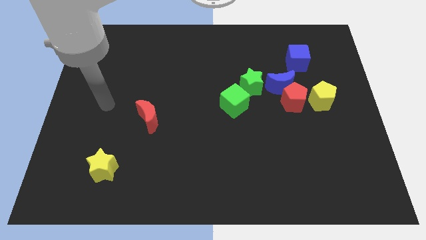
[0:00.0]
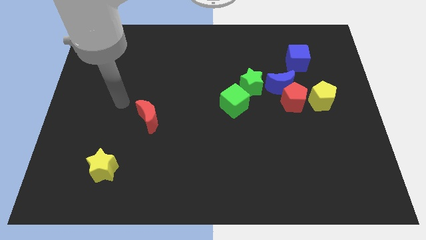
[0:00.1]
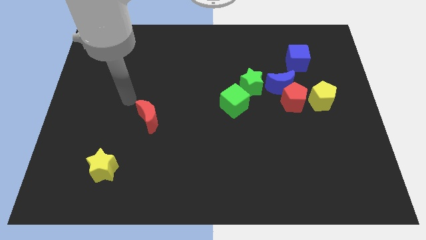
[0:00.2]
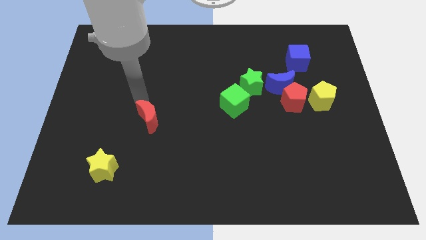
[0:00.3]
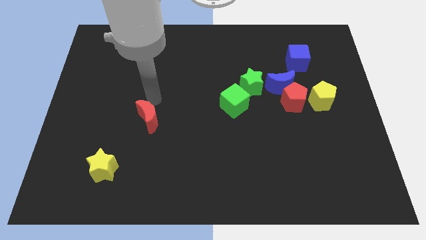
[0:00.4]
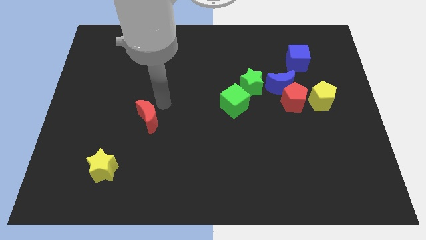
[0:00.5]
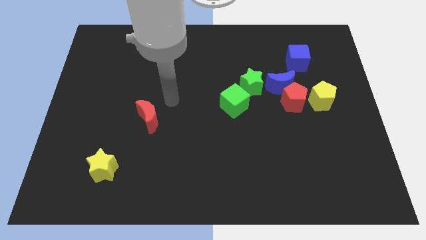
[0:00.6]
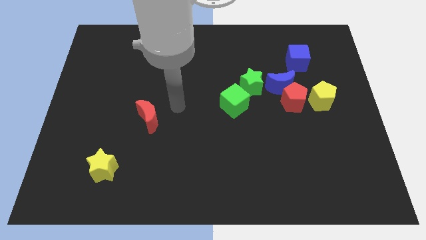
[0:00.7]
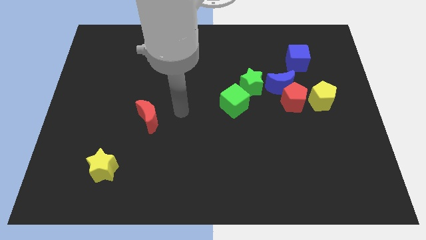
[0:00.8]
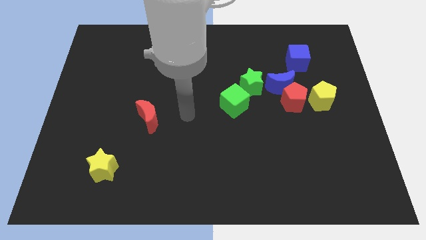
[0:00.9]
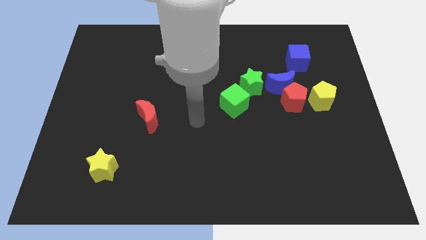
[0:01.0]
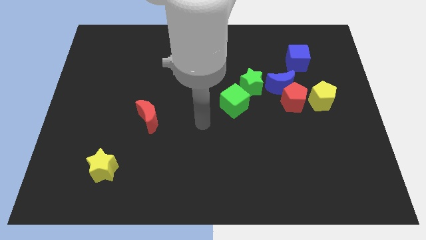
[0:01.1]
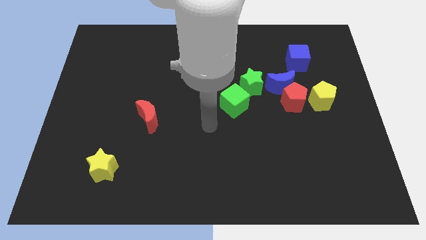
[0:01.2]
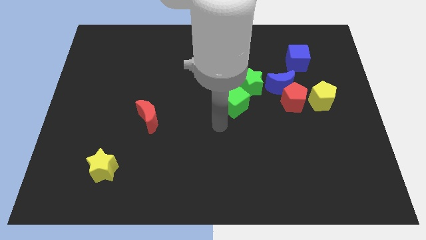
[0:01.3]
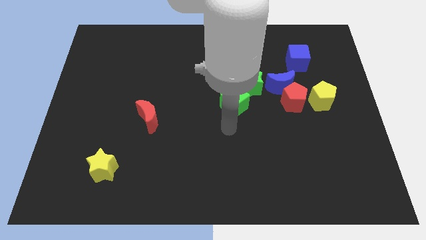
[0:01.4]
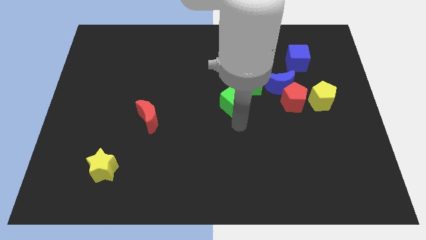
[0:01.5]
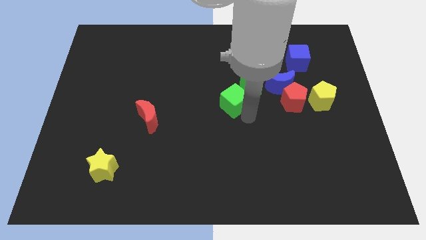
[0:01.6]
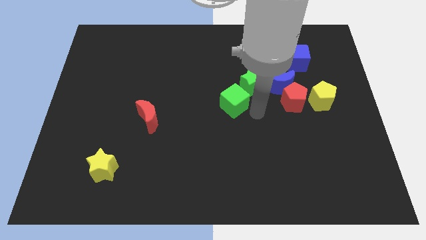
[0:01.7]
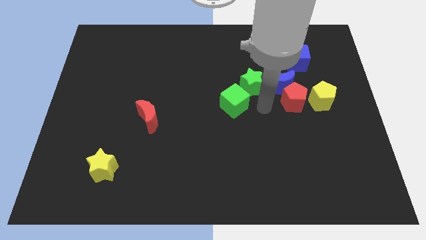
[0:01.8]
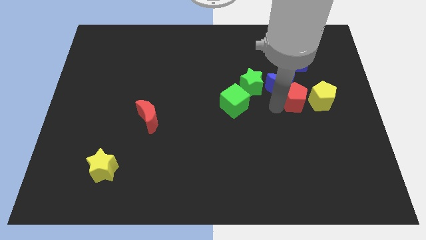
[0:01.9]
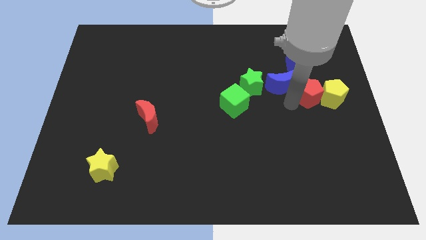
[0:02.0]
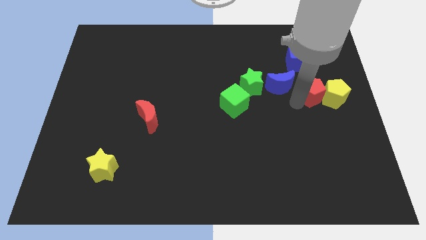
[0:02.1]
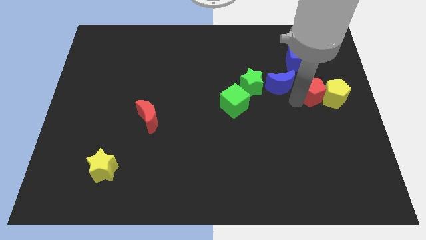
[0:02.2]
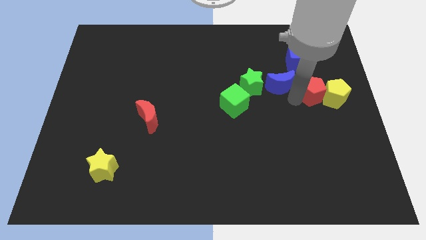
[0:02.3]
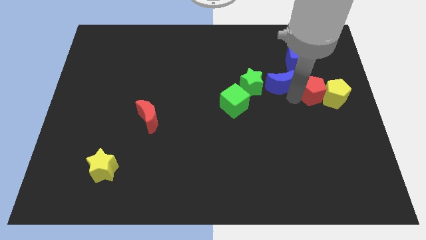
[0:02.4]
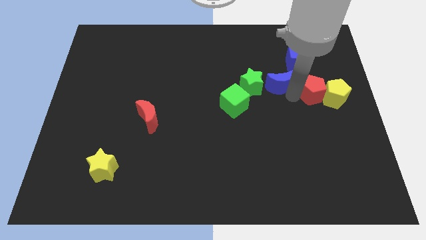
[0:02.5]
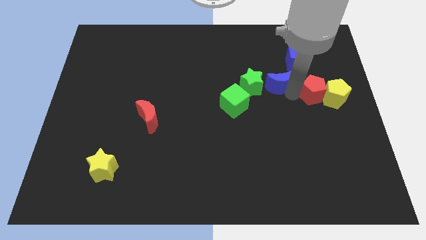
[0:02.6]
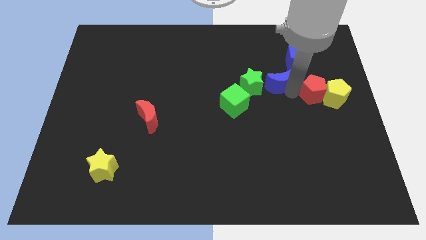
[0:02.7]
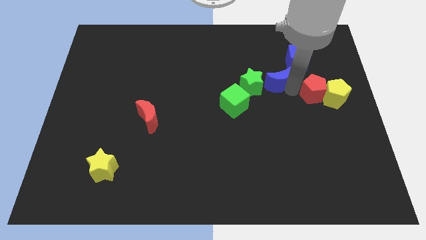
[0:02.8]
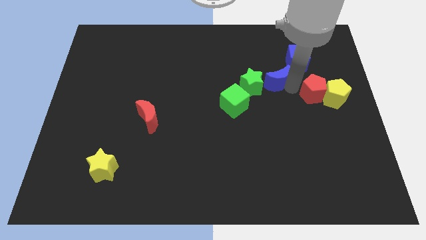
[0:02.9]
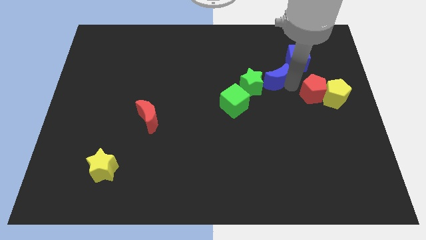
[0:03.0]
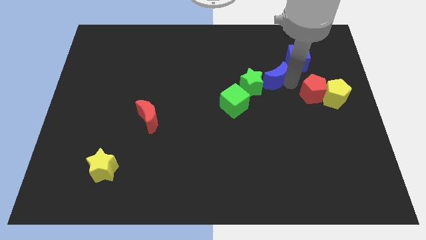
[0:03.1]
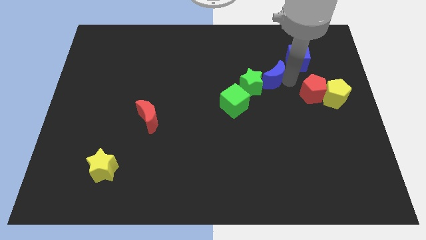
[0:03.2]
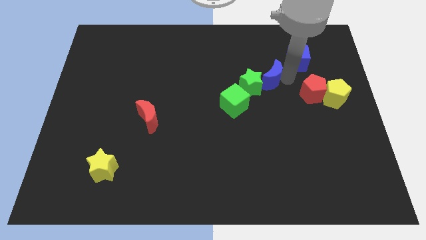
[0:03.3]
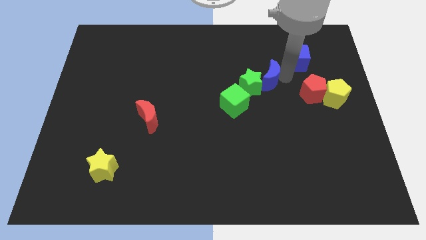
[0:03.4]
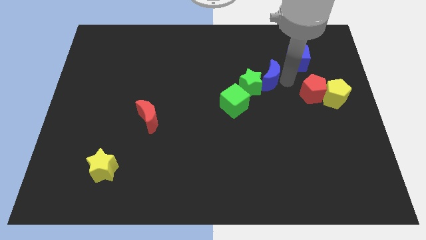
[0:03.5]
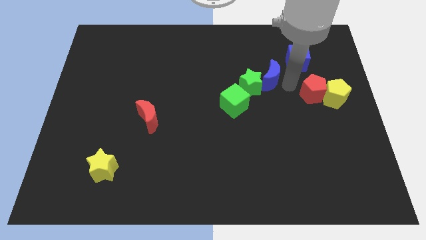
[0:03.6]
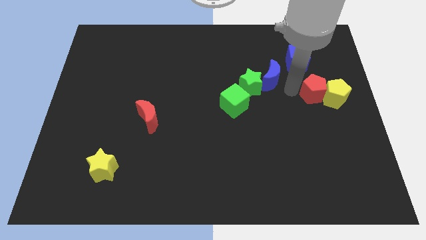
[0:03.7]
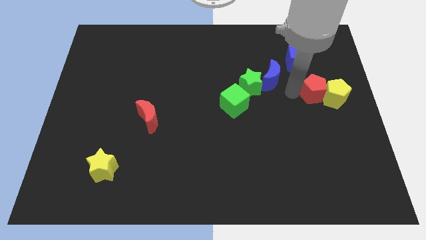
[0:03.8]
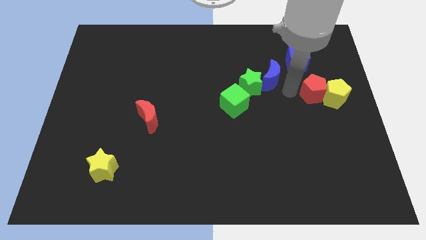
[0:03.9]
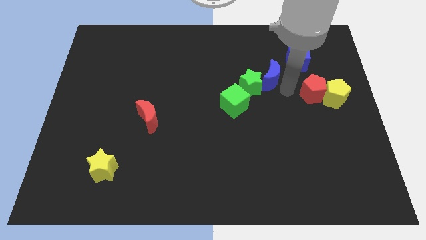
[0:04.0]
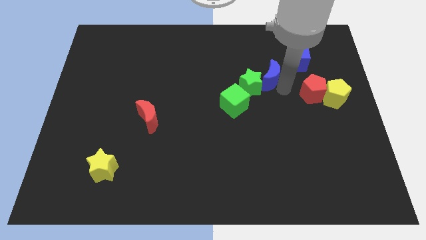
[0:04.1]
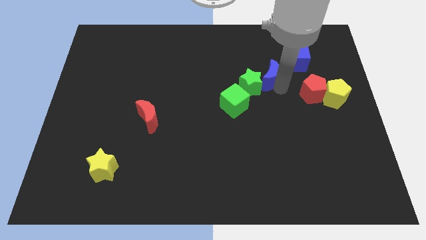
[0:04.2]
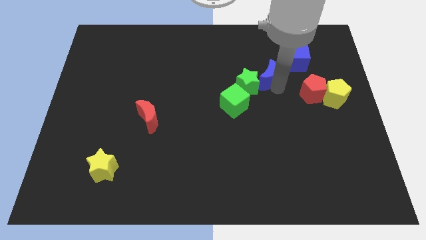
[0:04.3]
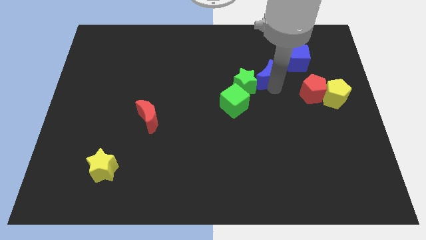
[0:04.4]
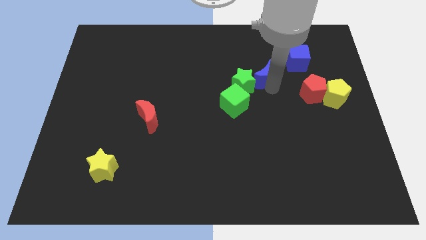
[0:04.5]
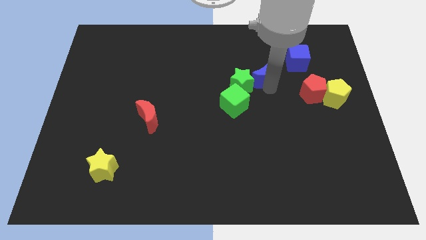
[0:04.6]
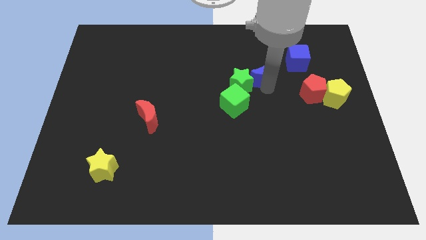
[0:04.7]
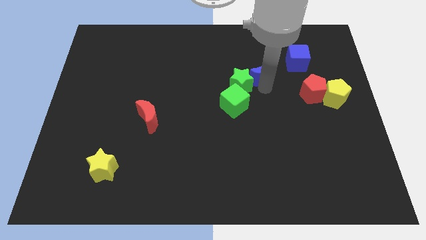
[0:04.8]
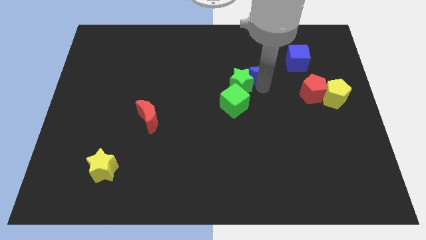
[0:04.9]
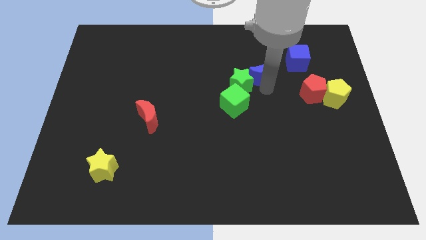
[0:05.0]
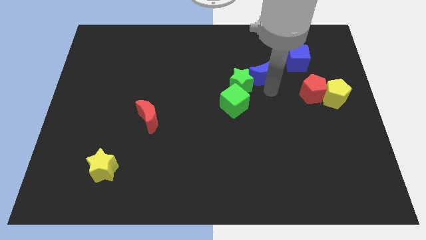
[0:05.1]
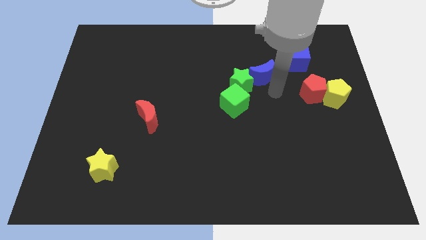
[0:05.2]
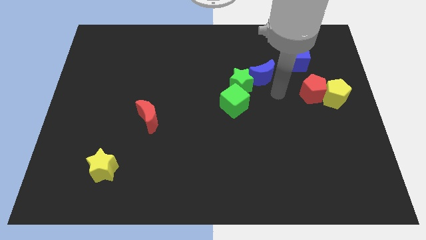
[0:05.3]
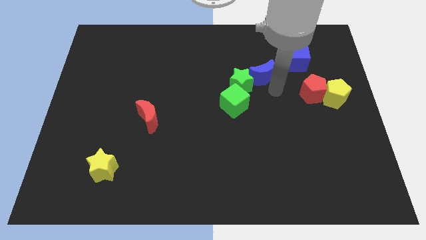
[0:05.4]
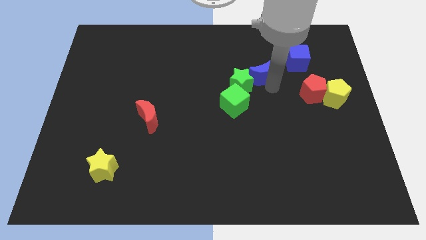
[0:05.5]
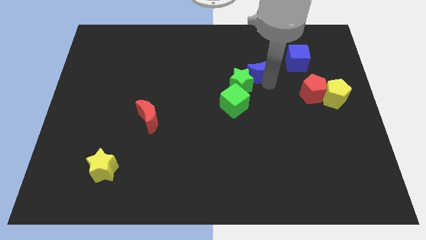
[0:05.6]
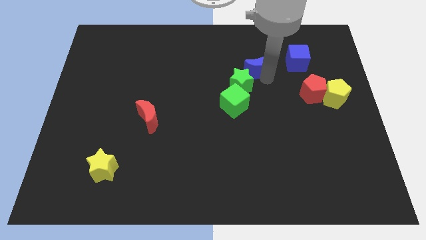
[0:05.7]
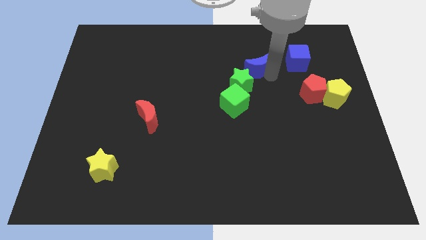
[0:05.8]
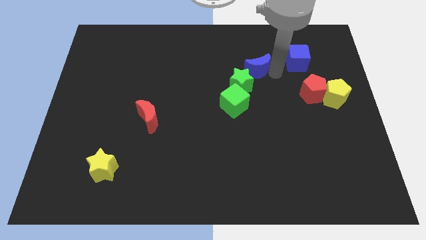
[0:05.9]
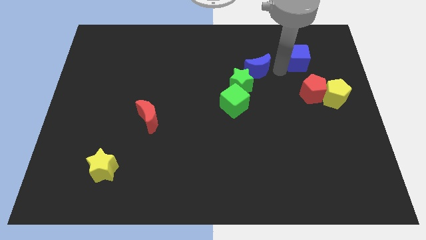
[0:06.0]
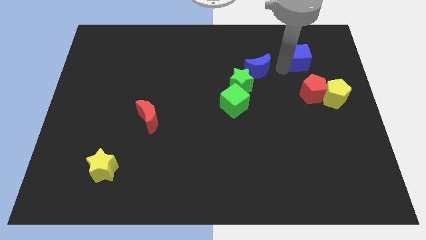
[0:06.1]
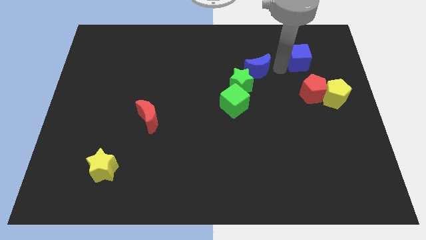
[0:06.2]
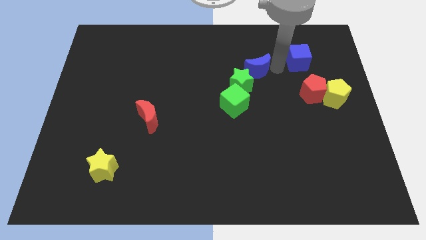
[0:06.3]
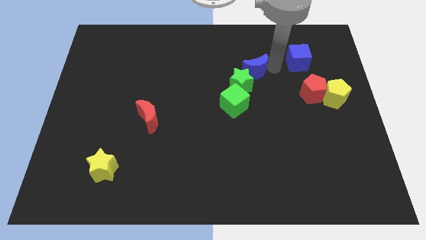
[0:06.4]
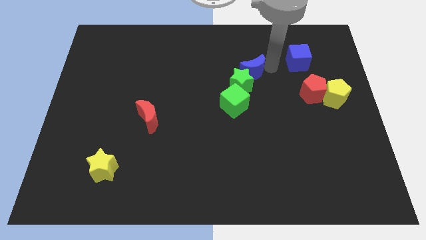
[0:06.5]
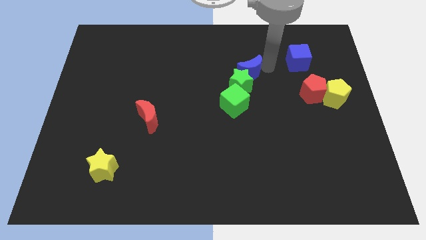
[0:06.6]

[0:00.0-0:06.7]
push the blue moon above the green cube

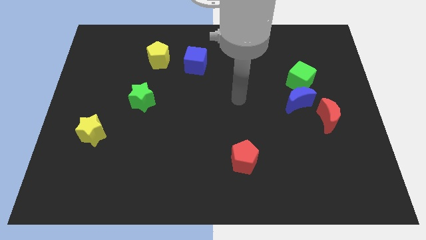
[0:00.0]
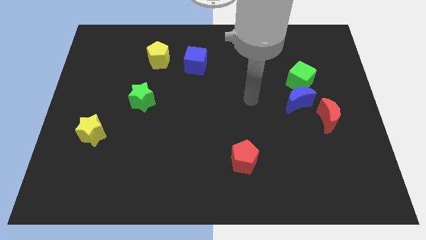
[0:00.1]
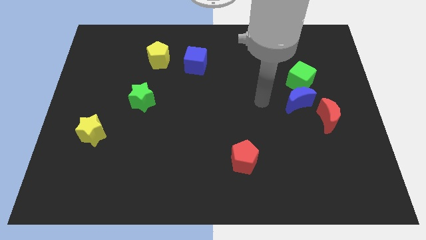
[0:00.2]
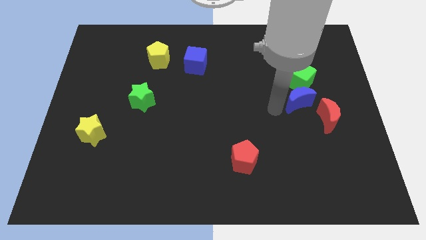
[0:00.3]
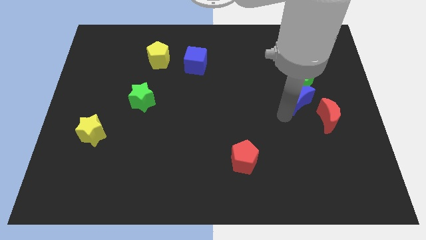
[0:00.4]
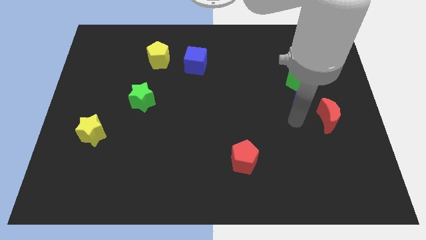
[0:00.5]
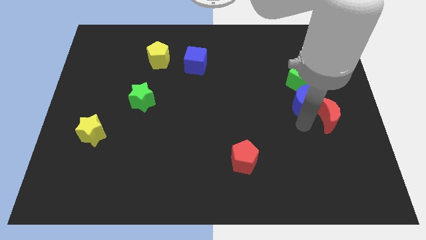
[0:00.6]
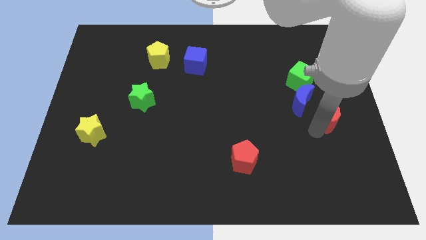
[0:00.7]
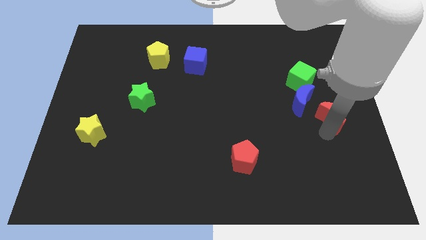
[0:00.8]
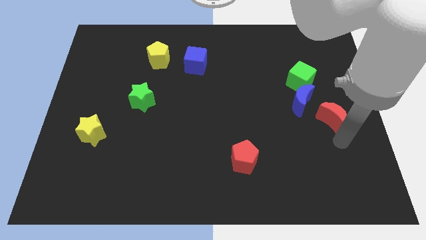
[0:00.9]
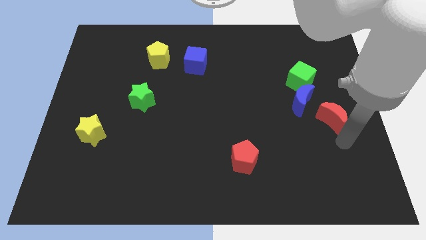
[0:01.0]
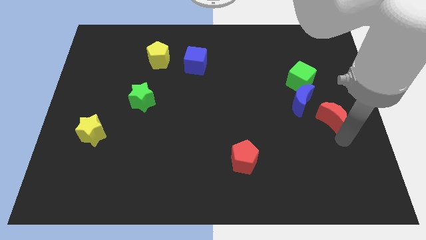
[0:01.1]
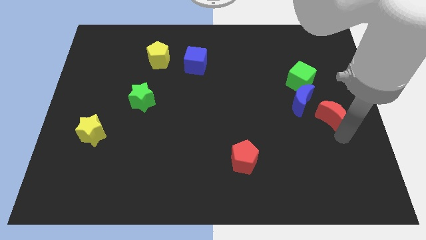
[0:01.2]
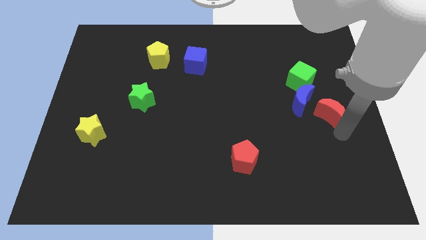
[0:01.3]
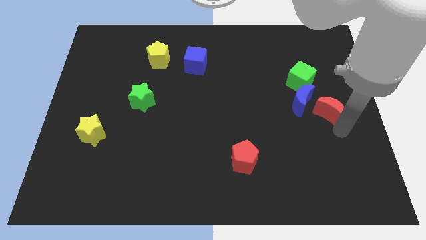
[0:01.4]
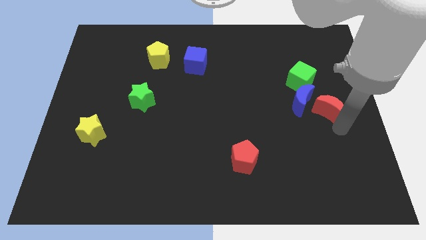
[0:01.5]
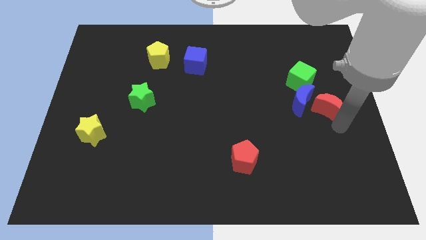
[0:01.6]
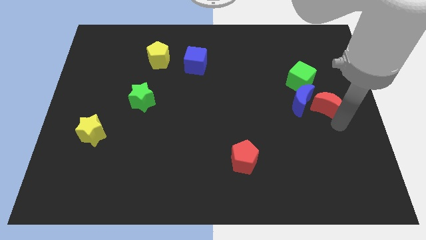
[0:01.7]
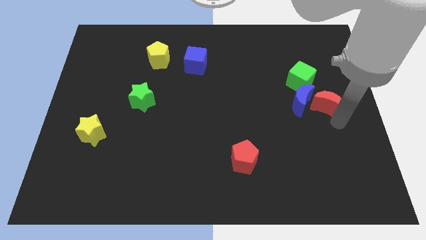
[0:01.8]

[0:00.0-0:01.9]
move the red moon to the top right of the blue moon
